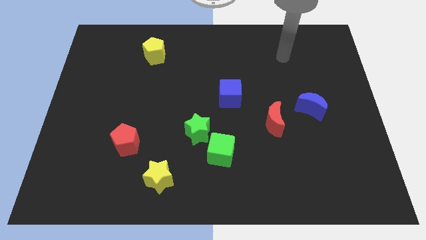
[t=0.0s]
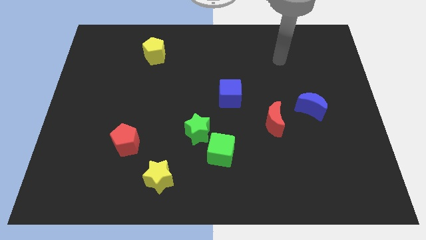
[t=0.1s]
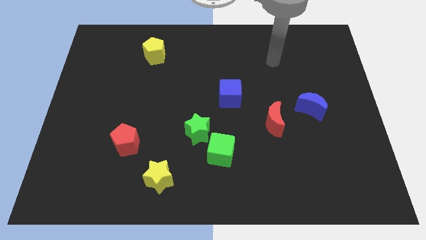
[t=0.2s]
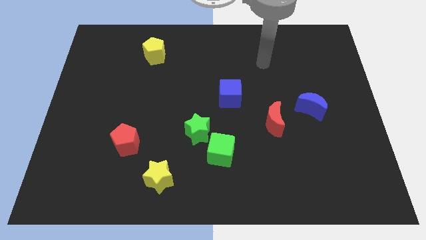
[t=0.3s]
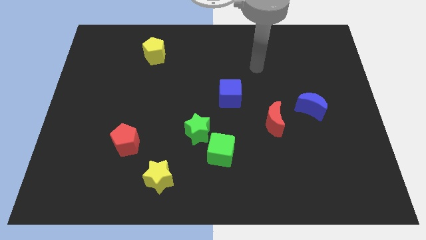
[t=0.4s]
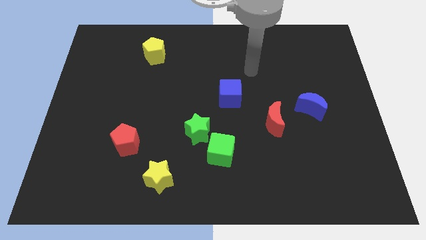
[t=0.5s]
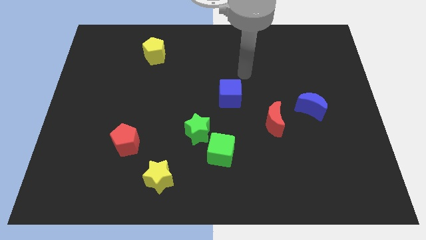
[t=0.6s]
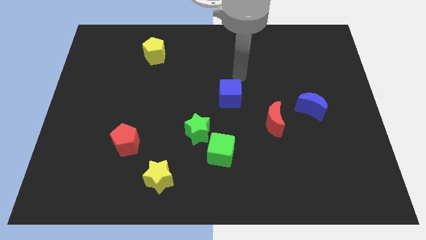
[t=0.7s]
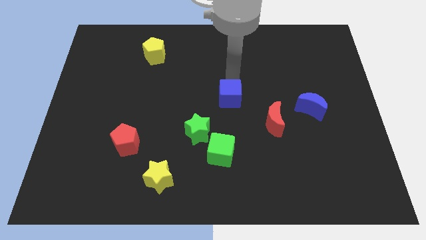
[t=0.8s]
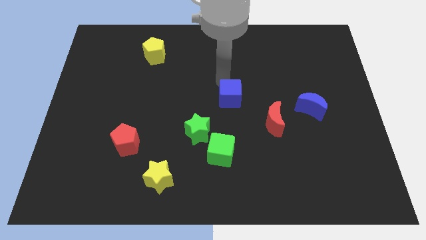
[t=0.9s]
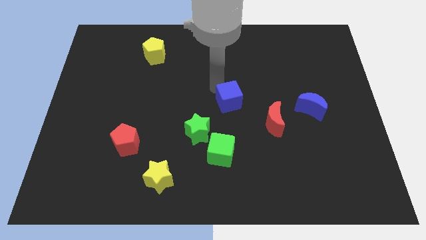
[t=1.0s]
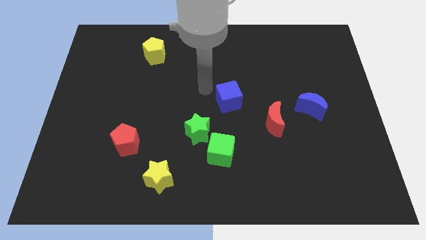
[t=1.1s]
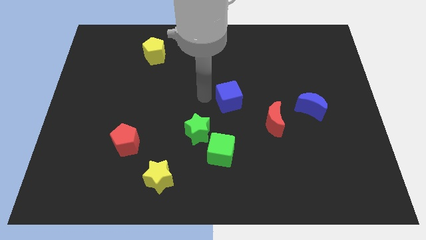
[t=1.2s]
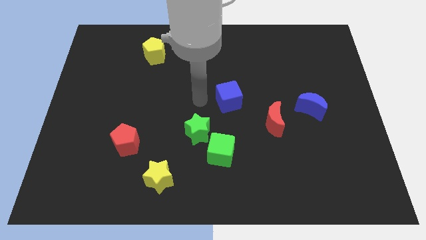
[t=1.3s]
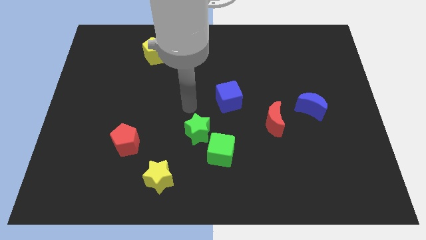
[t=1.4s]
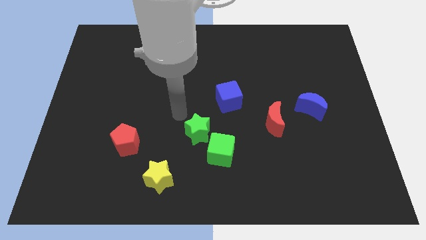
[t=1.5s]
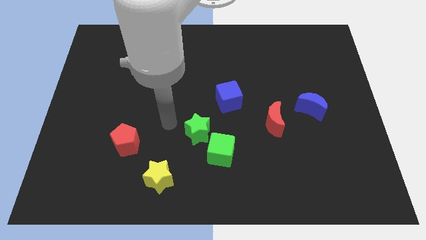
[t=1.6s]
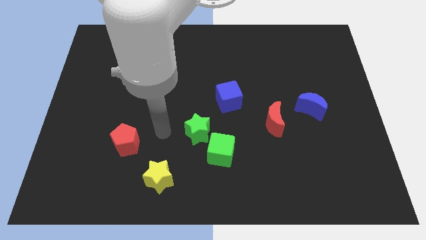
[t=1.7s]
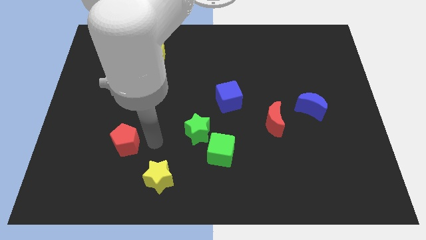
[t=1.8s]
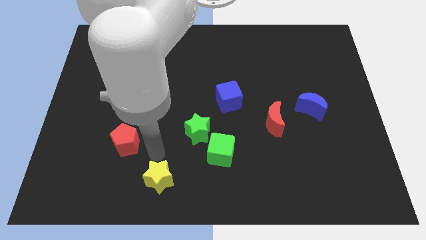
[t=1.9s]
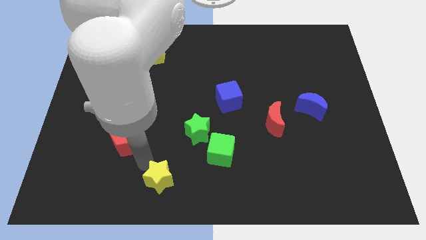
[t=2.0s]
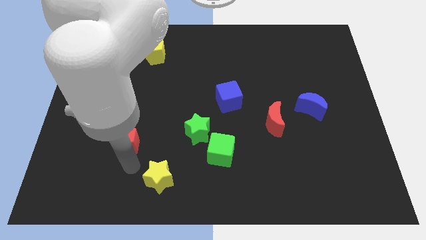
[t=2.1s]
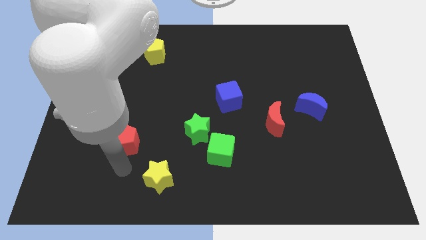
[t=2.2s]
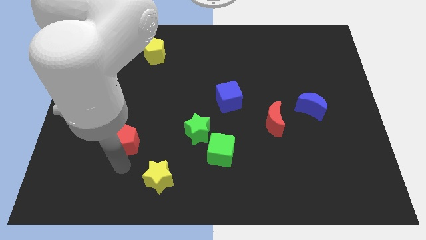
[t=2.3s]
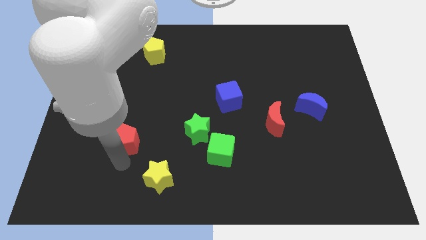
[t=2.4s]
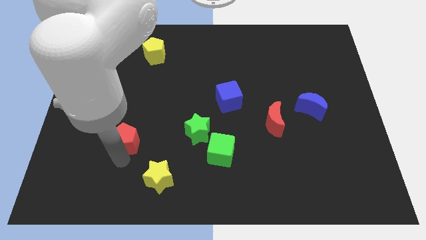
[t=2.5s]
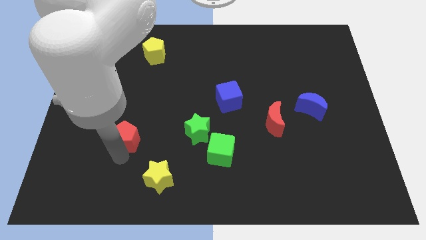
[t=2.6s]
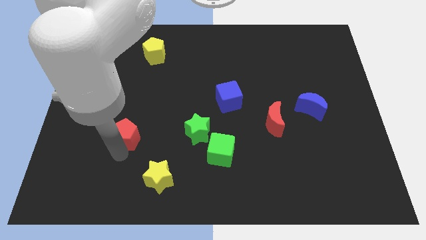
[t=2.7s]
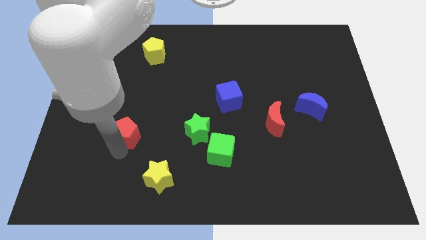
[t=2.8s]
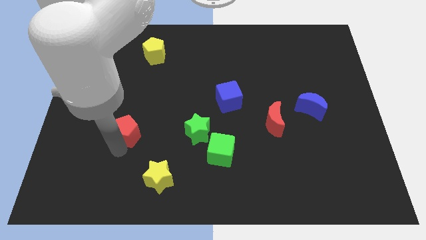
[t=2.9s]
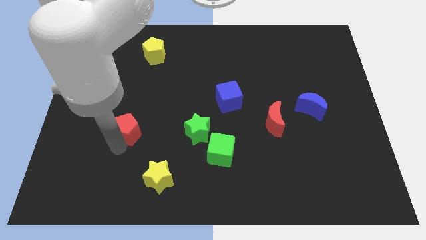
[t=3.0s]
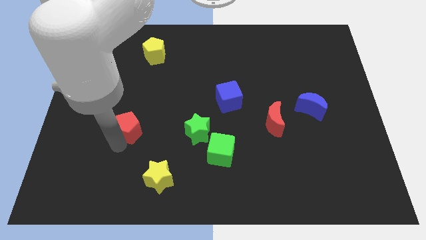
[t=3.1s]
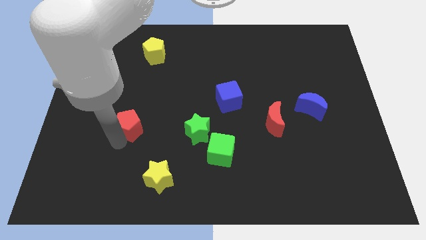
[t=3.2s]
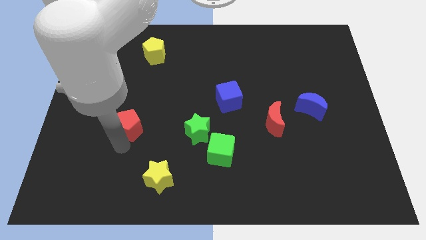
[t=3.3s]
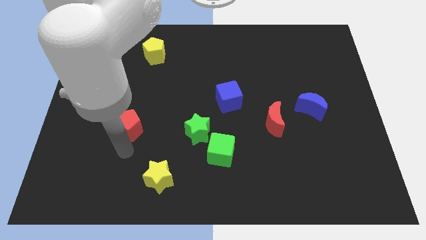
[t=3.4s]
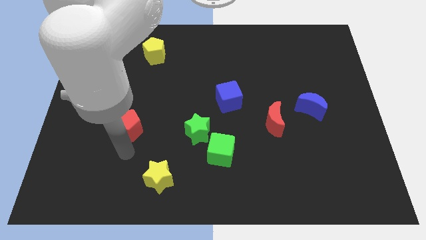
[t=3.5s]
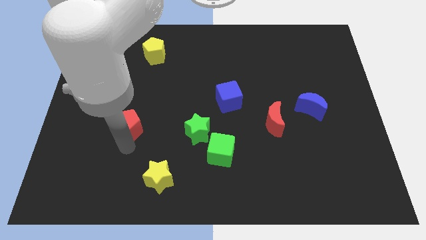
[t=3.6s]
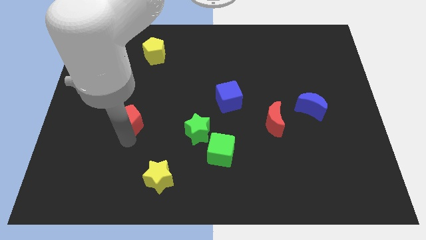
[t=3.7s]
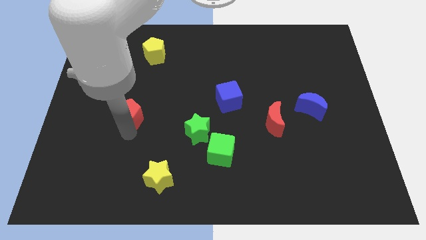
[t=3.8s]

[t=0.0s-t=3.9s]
slide the red pentagon up a bit

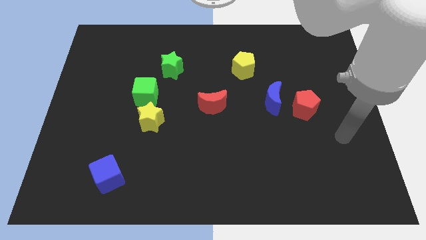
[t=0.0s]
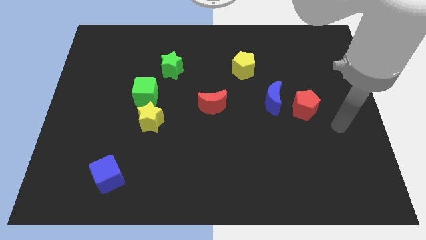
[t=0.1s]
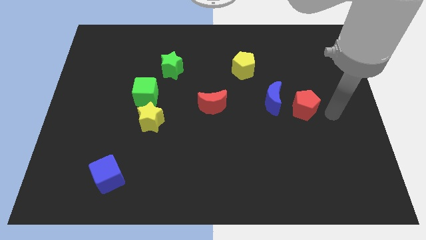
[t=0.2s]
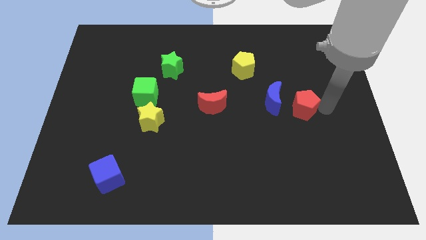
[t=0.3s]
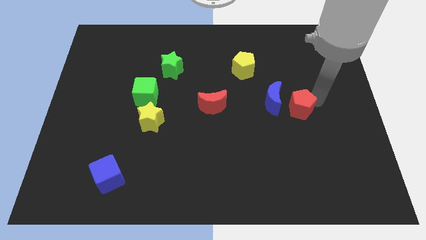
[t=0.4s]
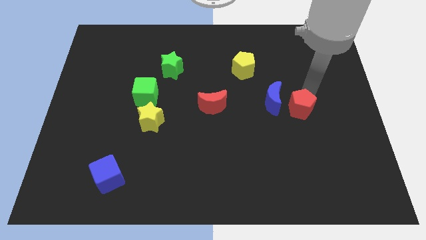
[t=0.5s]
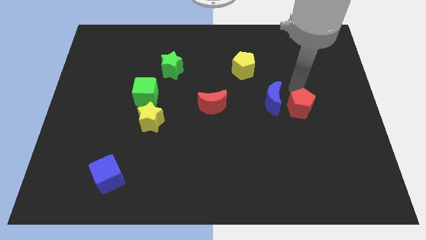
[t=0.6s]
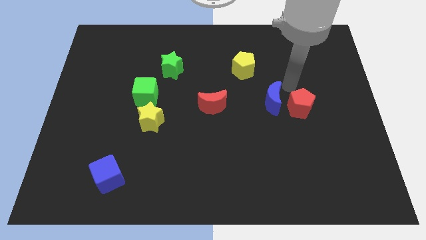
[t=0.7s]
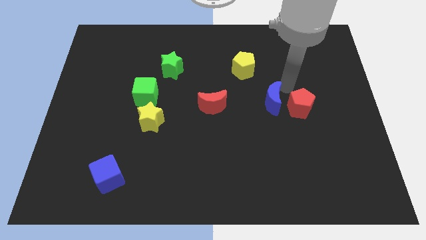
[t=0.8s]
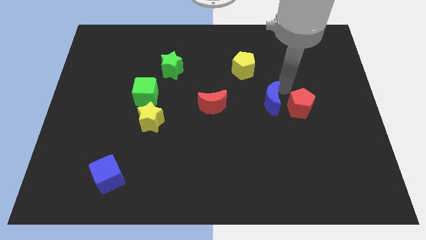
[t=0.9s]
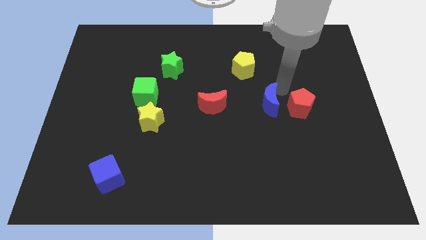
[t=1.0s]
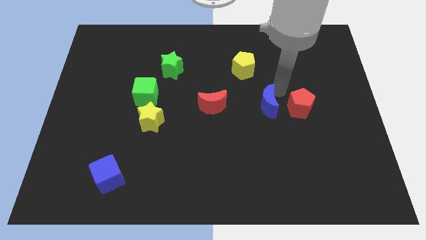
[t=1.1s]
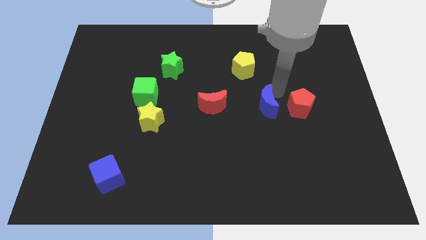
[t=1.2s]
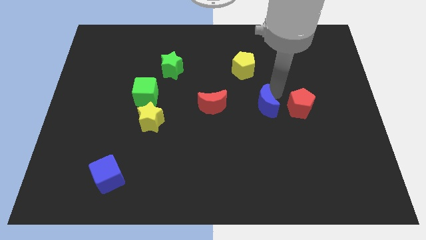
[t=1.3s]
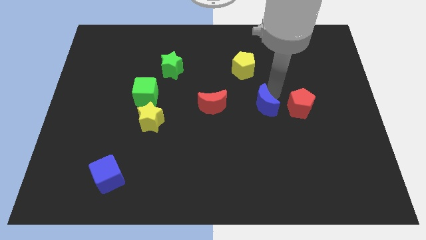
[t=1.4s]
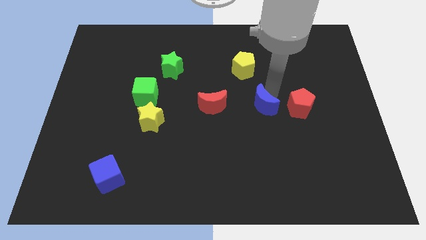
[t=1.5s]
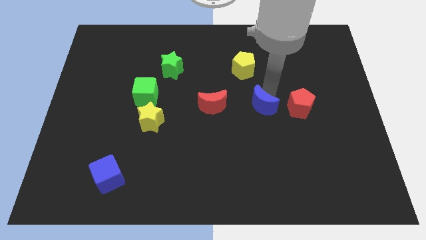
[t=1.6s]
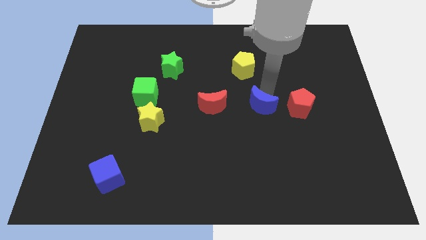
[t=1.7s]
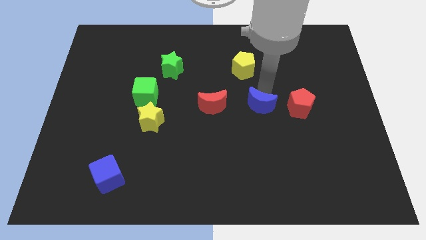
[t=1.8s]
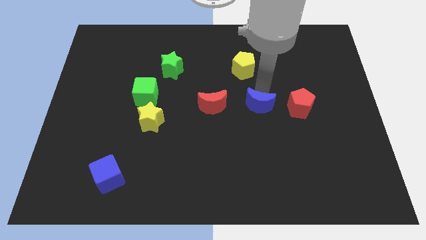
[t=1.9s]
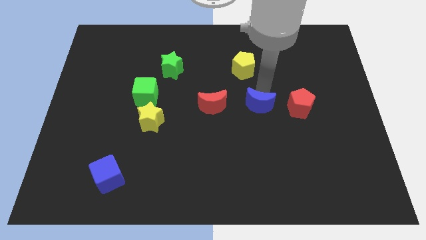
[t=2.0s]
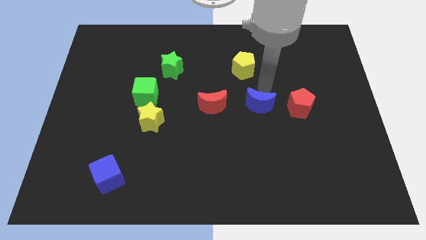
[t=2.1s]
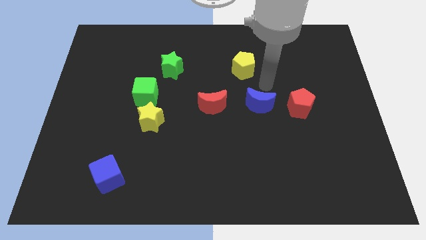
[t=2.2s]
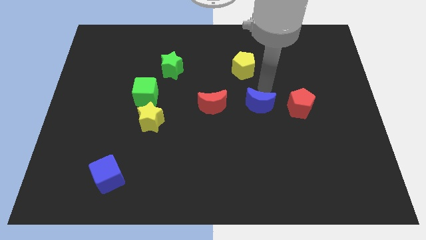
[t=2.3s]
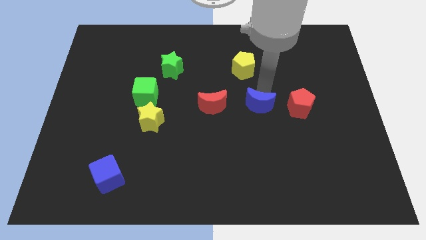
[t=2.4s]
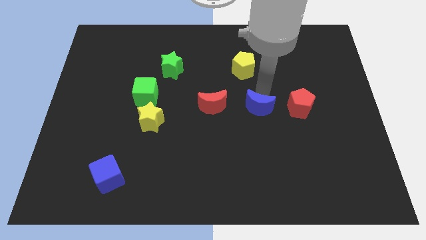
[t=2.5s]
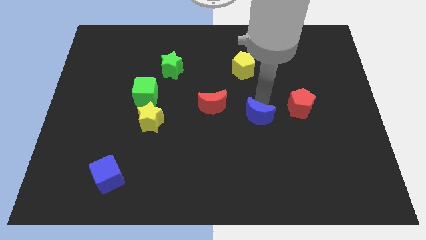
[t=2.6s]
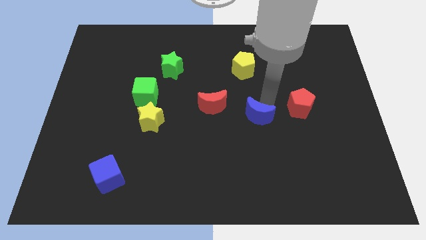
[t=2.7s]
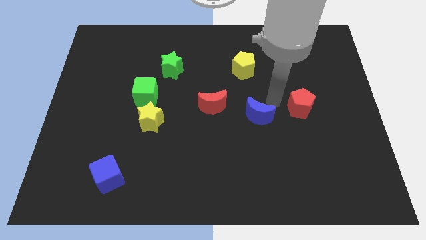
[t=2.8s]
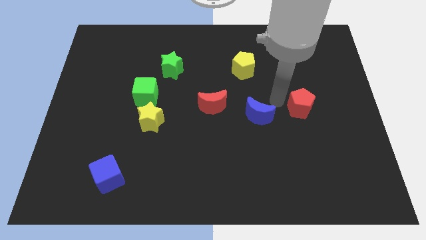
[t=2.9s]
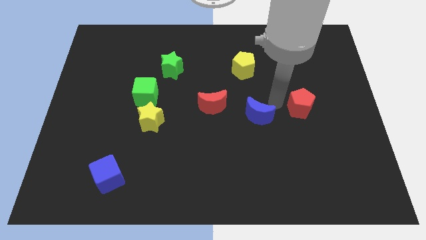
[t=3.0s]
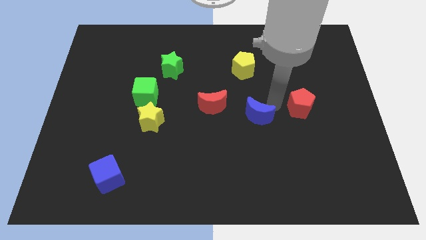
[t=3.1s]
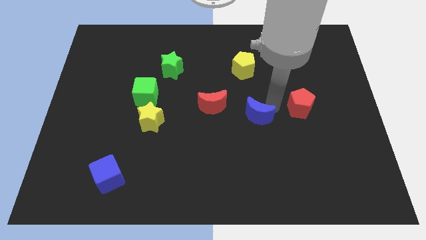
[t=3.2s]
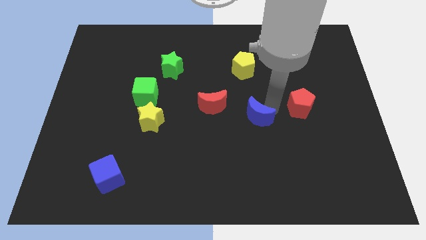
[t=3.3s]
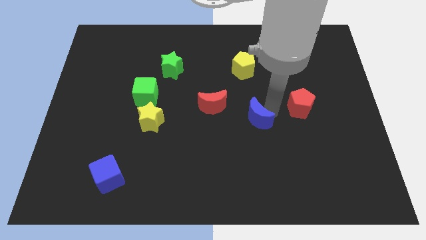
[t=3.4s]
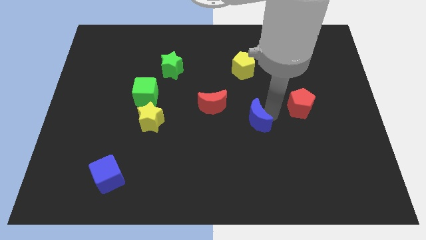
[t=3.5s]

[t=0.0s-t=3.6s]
push the blue moon somewhat down and left

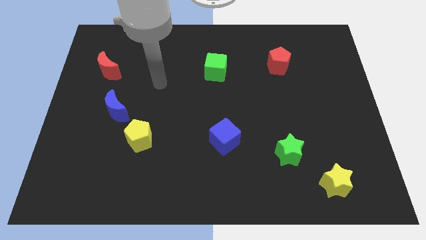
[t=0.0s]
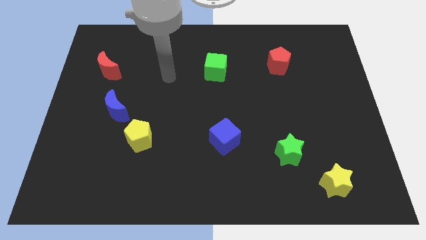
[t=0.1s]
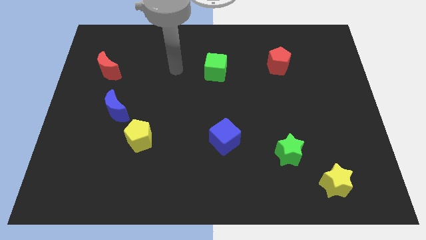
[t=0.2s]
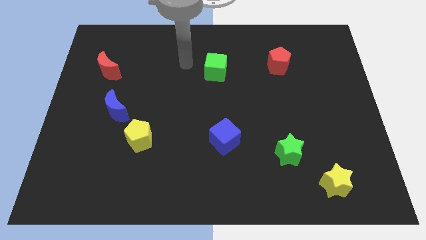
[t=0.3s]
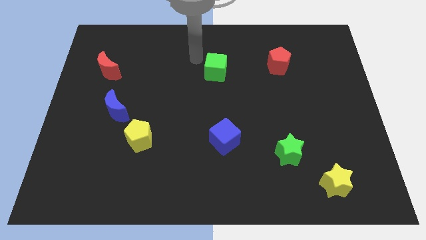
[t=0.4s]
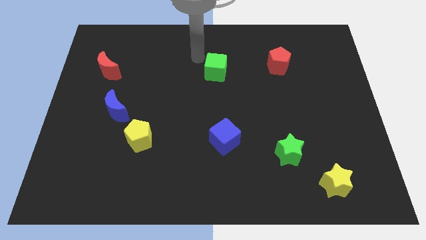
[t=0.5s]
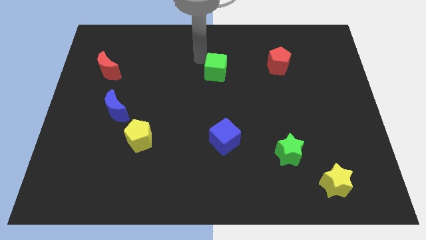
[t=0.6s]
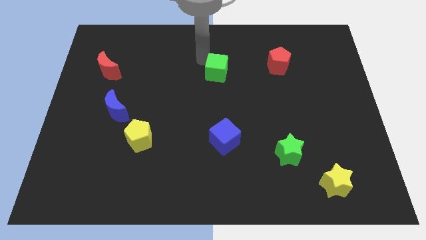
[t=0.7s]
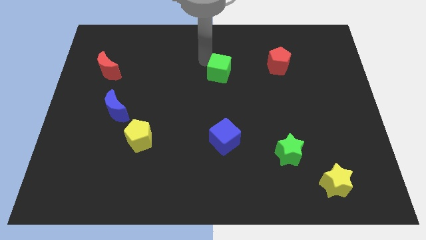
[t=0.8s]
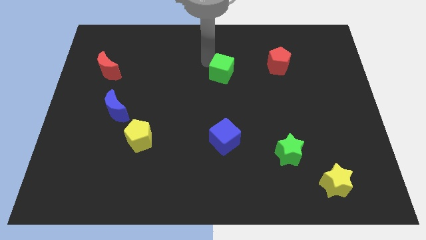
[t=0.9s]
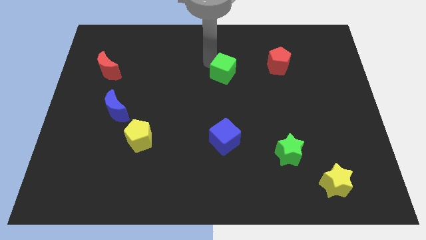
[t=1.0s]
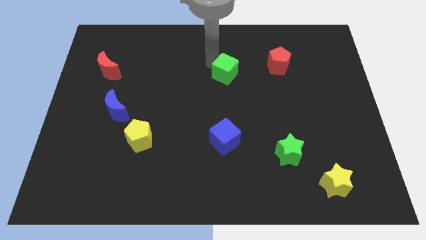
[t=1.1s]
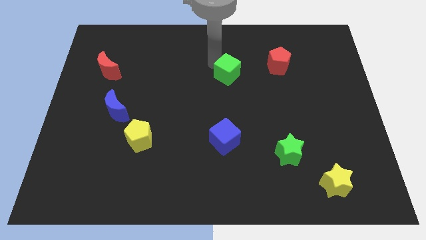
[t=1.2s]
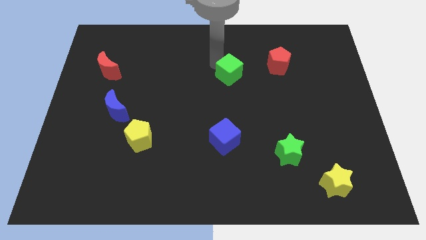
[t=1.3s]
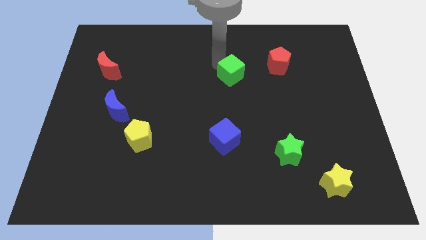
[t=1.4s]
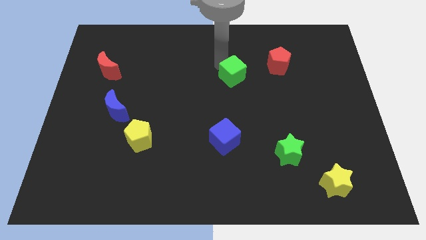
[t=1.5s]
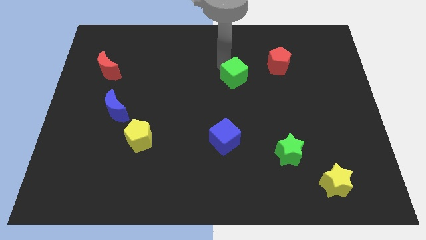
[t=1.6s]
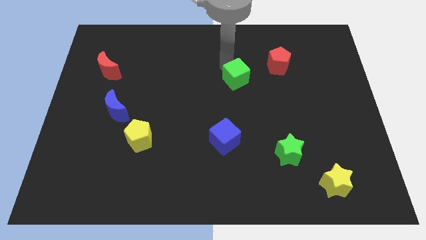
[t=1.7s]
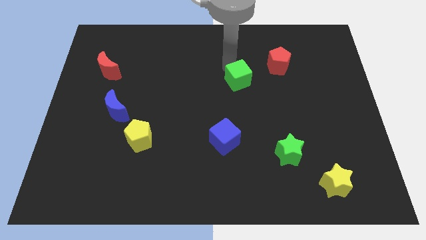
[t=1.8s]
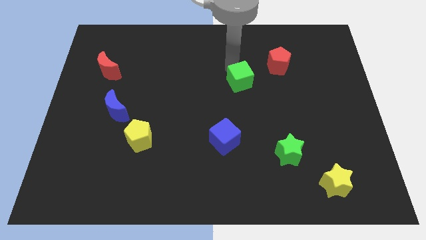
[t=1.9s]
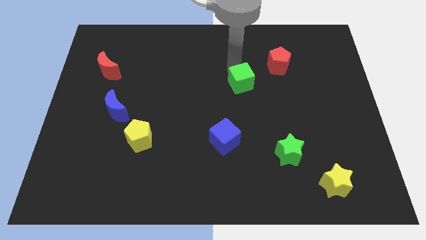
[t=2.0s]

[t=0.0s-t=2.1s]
slightly slide the green cube downwards and then to the right
